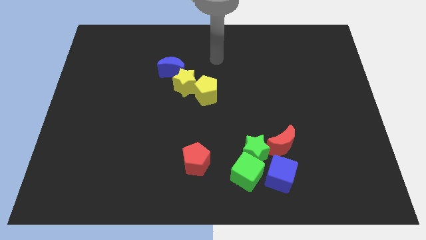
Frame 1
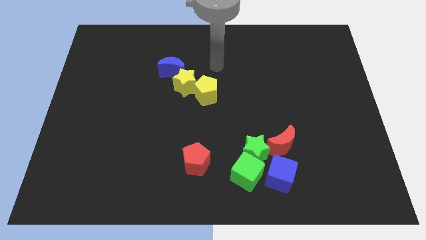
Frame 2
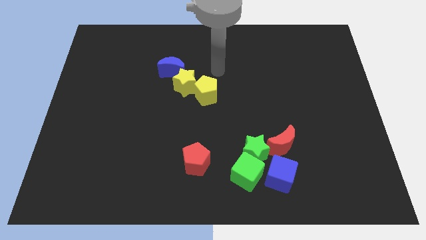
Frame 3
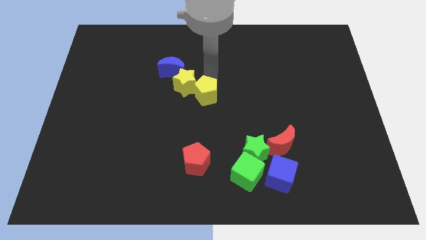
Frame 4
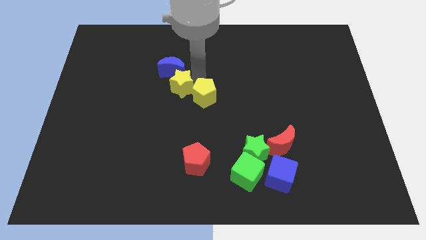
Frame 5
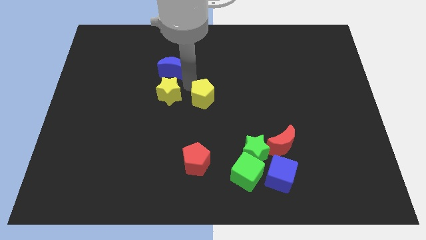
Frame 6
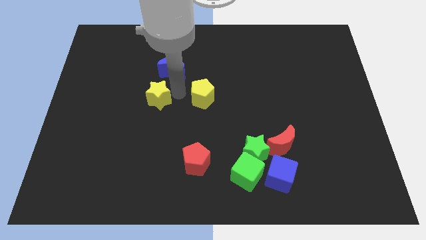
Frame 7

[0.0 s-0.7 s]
pull the yellow pentagon apart from the yellow star

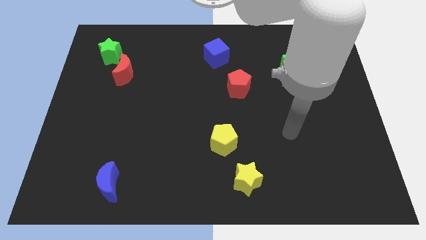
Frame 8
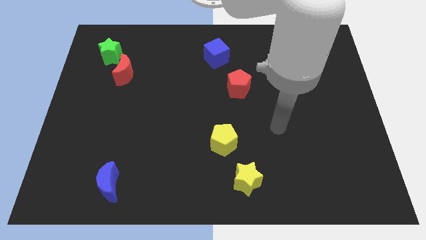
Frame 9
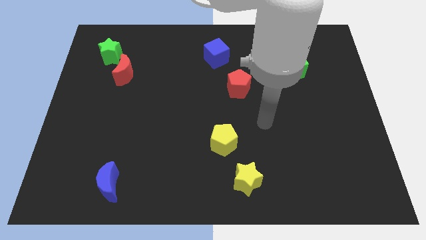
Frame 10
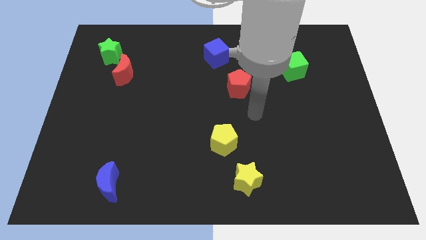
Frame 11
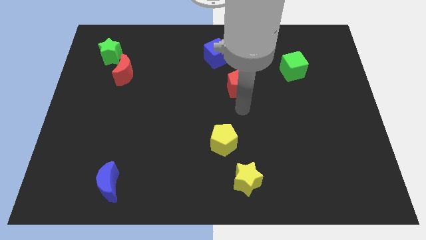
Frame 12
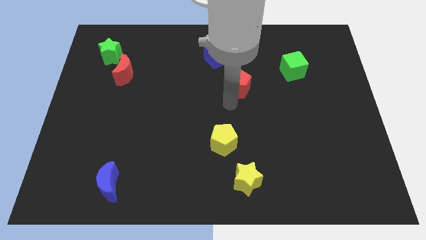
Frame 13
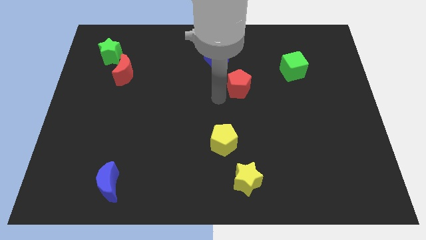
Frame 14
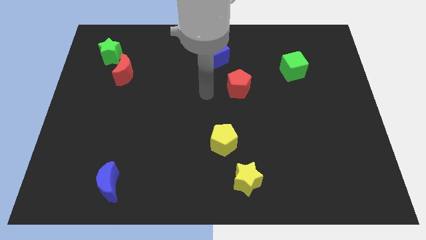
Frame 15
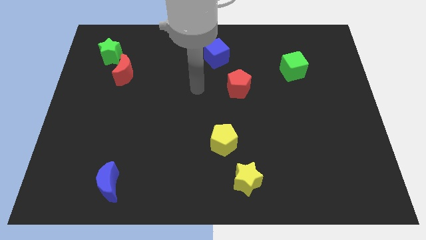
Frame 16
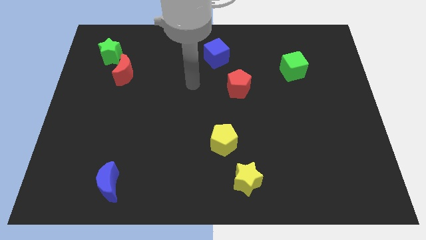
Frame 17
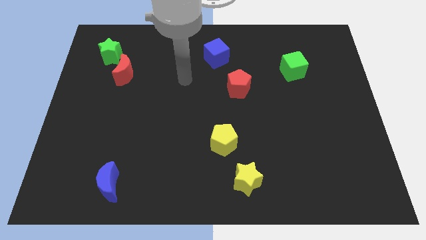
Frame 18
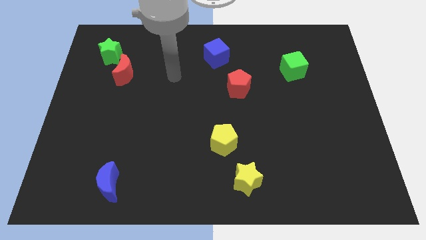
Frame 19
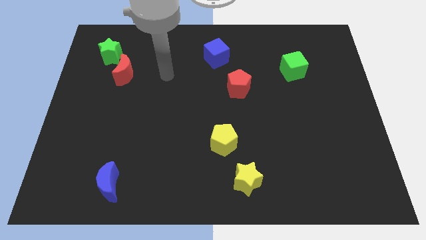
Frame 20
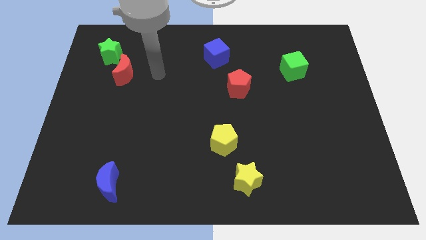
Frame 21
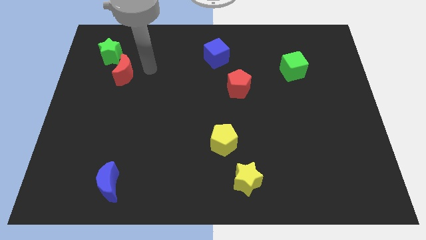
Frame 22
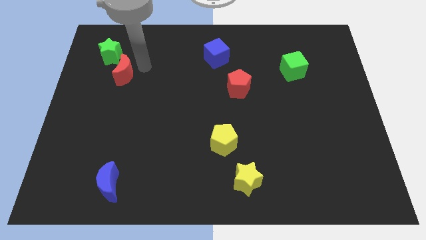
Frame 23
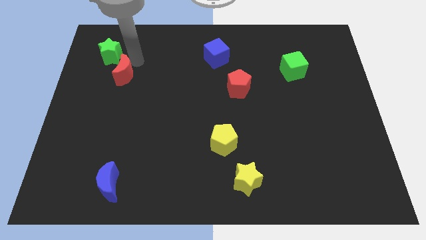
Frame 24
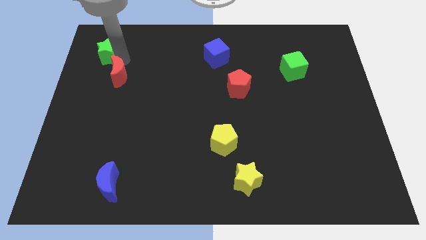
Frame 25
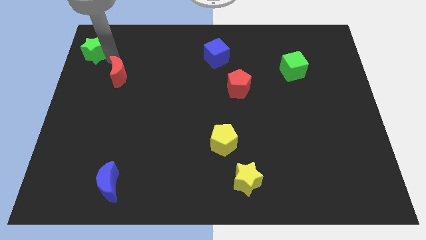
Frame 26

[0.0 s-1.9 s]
pull the red moon apart from the green star

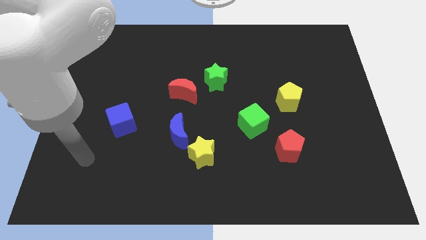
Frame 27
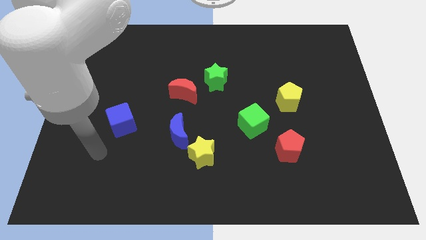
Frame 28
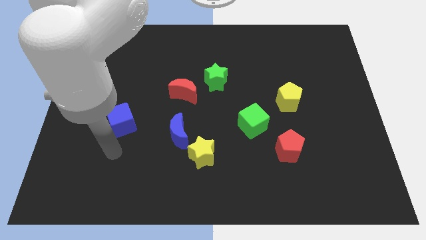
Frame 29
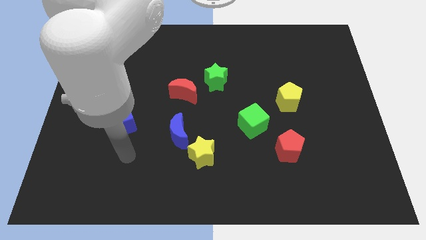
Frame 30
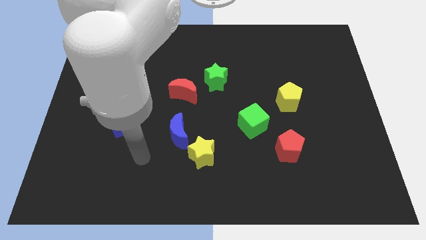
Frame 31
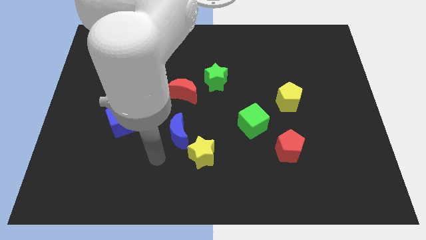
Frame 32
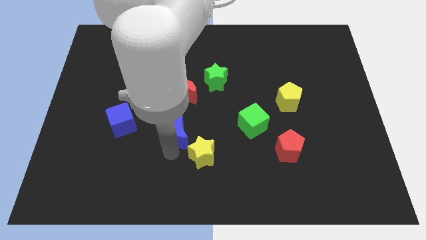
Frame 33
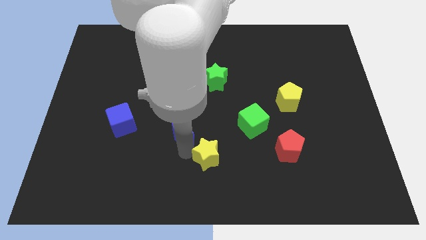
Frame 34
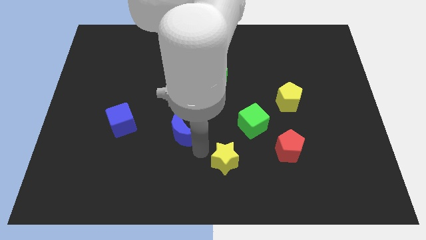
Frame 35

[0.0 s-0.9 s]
move the blue moon away from the yellow star

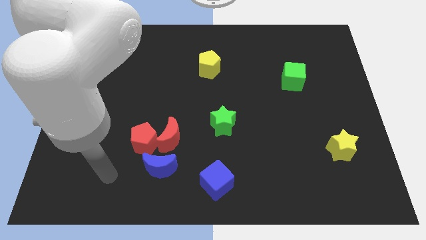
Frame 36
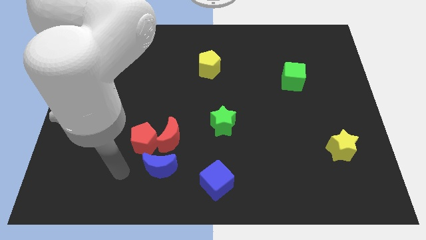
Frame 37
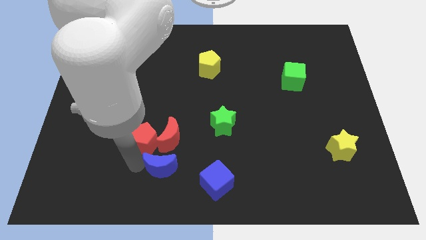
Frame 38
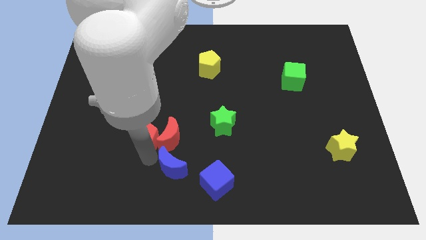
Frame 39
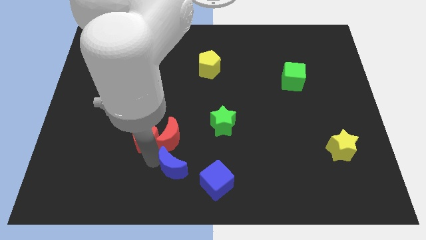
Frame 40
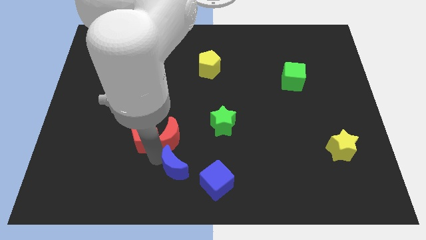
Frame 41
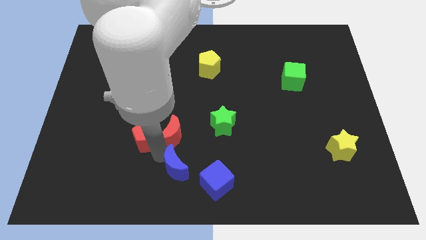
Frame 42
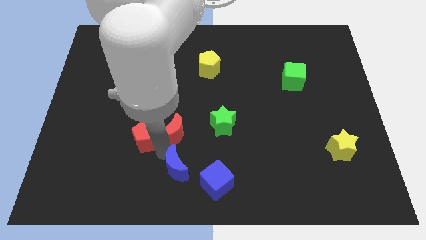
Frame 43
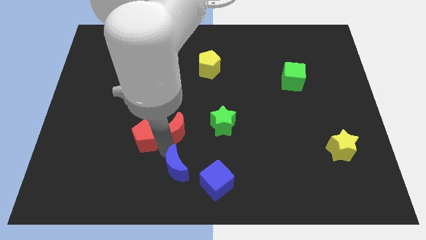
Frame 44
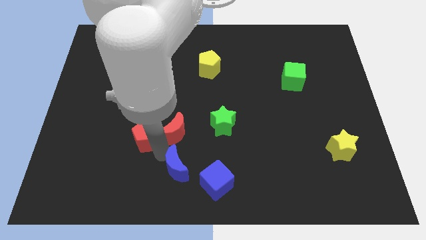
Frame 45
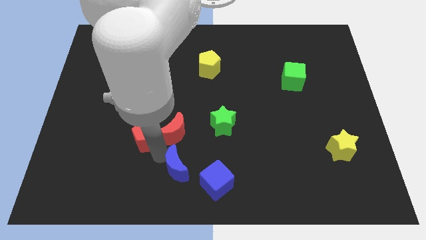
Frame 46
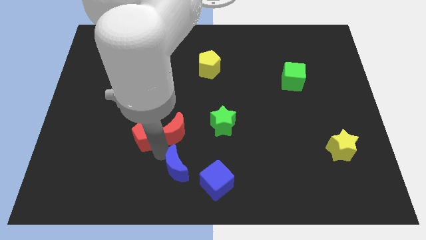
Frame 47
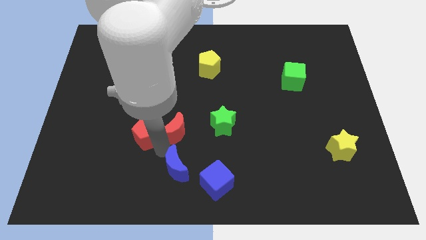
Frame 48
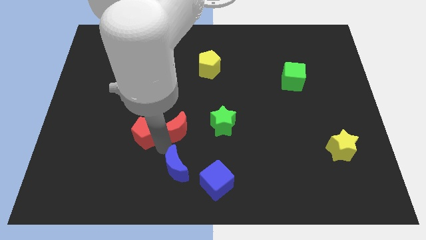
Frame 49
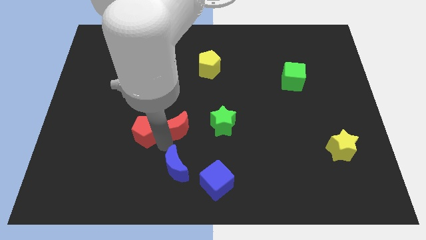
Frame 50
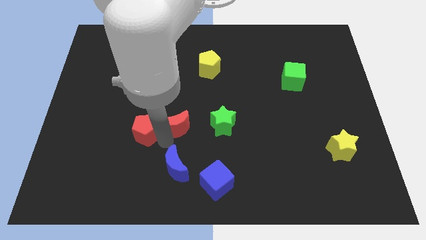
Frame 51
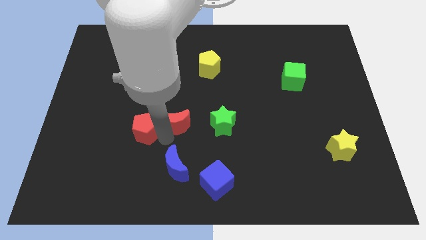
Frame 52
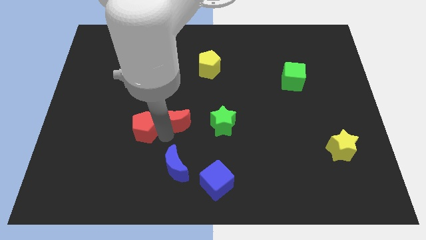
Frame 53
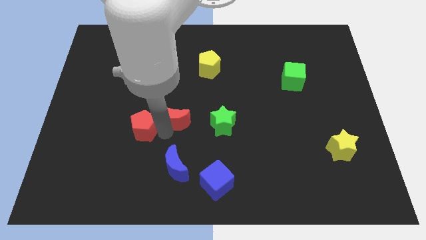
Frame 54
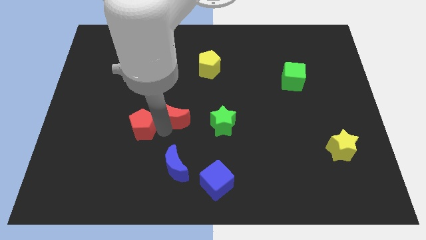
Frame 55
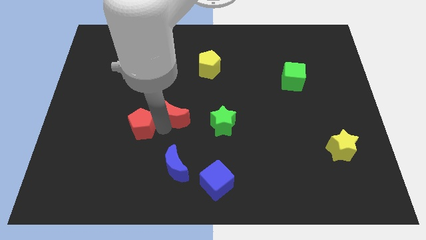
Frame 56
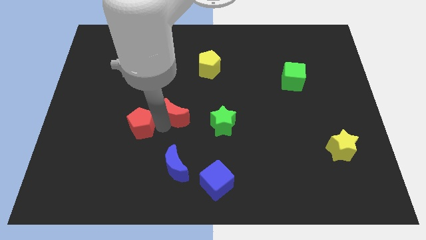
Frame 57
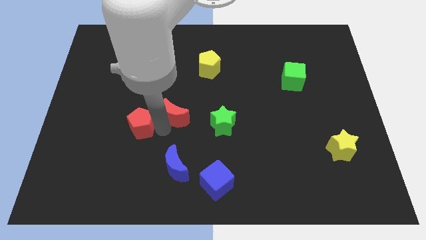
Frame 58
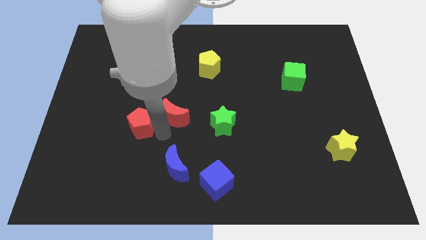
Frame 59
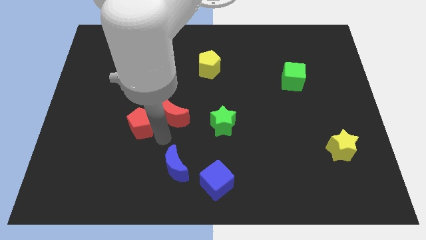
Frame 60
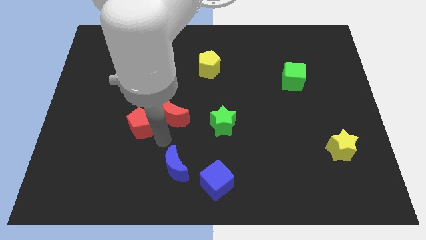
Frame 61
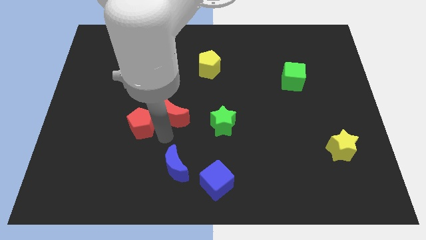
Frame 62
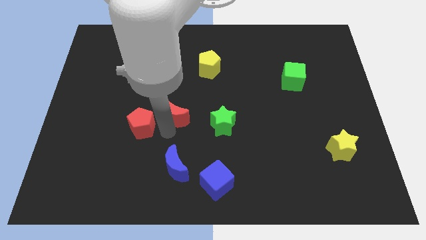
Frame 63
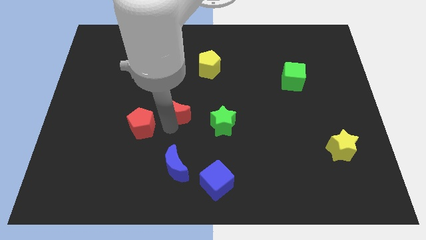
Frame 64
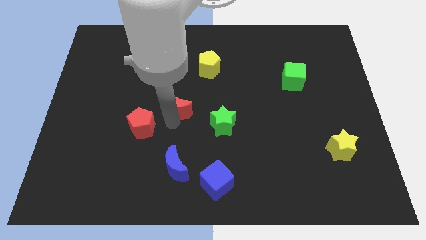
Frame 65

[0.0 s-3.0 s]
separate the red moon from the red pentagon and blue moon

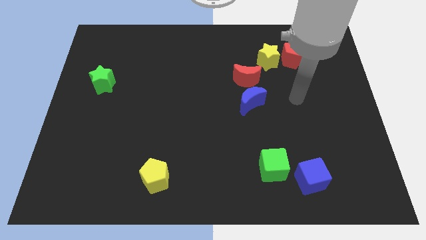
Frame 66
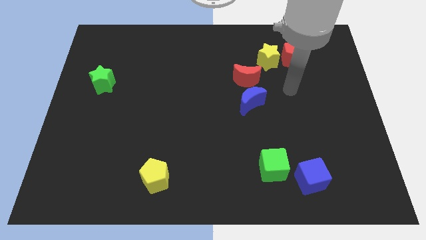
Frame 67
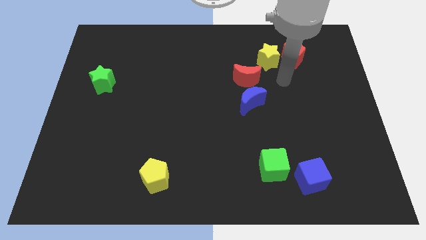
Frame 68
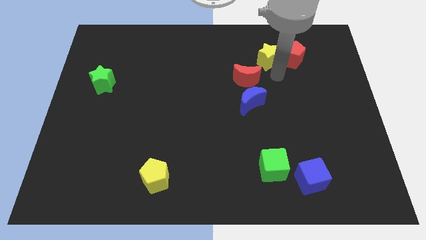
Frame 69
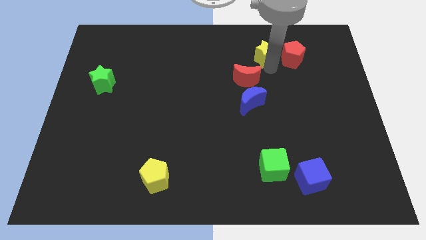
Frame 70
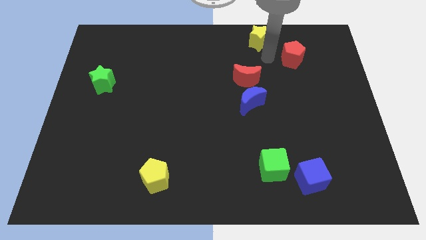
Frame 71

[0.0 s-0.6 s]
move the red pentagon away from the yellow star

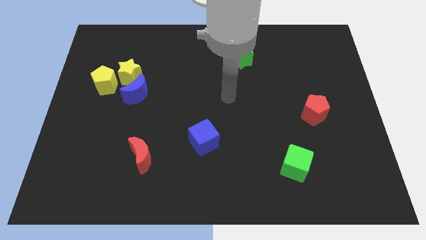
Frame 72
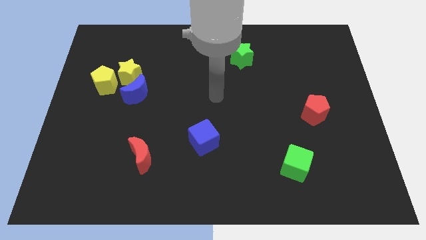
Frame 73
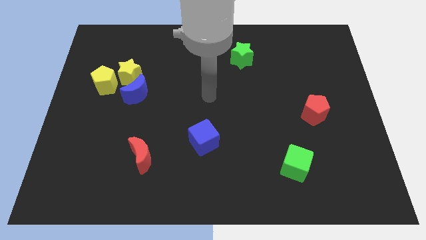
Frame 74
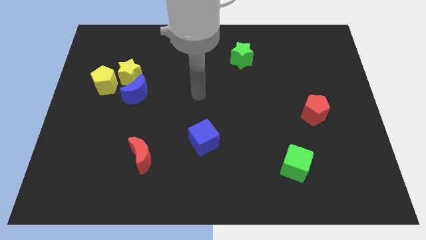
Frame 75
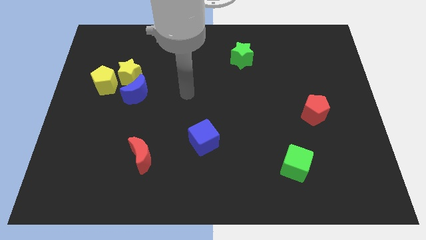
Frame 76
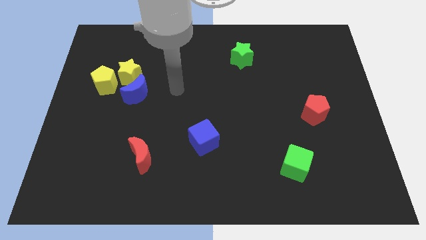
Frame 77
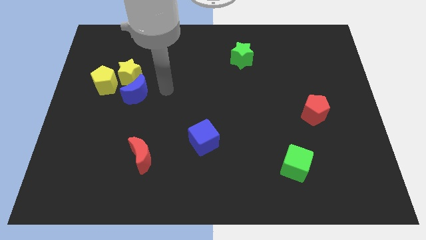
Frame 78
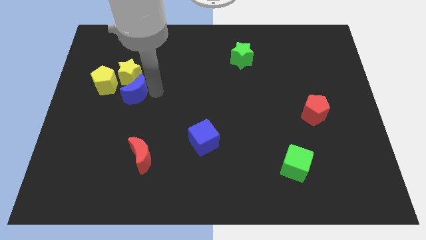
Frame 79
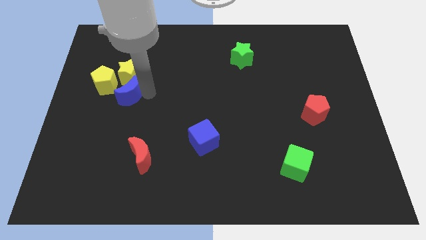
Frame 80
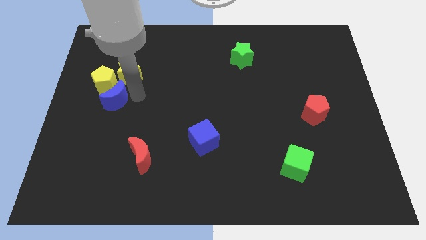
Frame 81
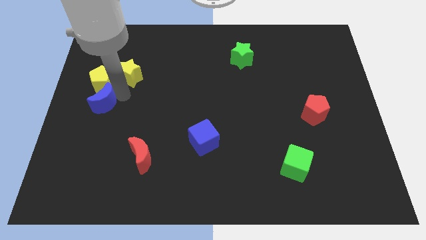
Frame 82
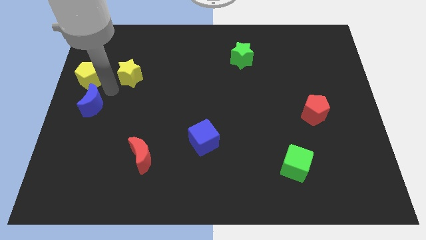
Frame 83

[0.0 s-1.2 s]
separate the yellow star from the blue moon and yellow pentagon

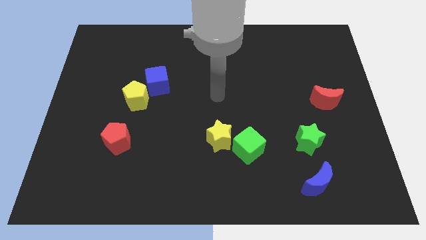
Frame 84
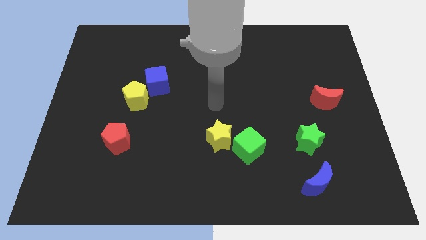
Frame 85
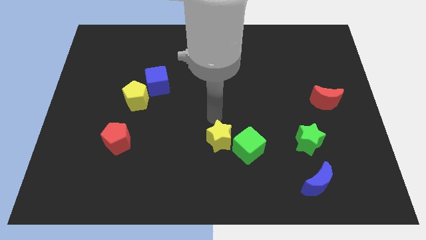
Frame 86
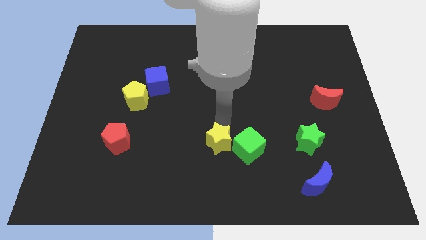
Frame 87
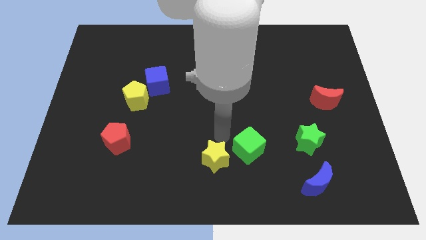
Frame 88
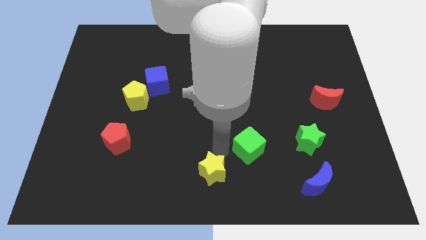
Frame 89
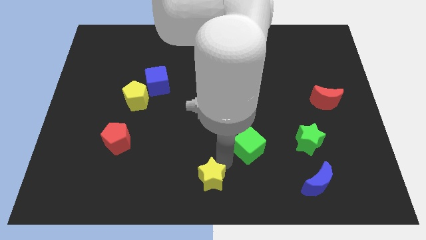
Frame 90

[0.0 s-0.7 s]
move the green cube away from the yellow star

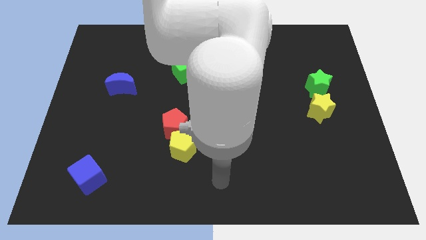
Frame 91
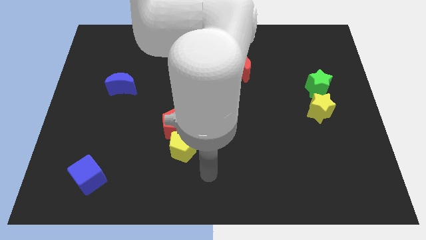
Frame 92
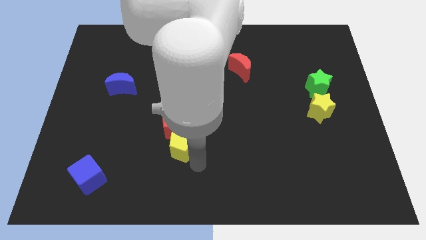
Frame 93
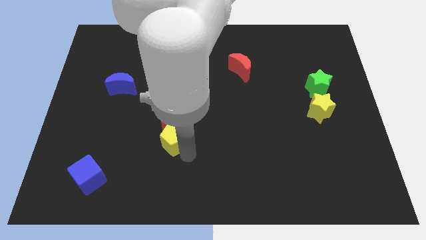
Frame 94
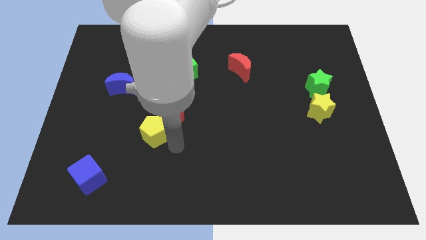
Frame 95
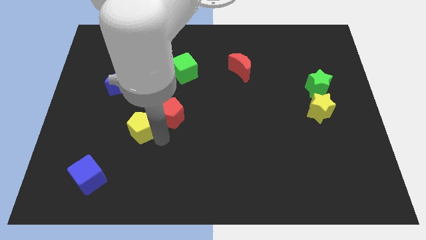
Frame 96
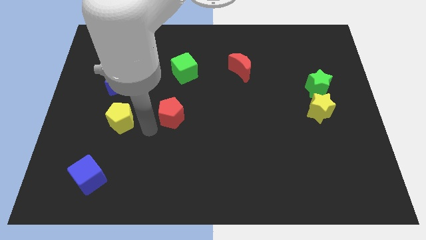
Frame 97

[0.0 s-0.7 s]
separate the red pentagon from the yellow pentagon
